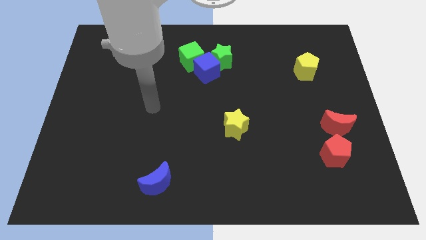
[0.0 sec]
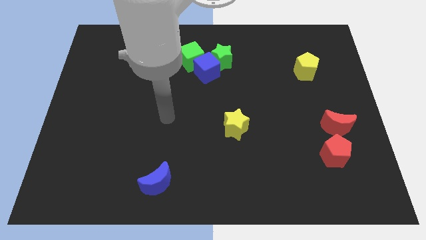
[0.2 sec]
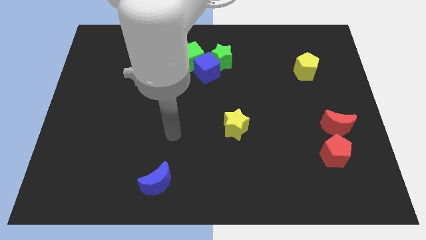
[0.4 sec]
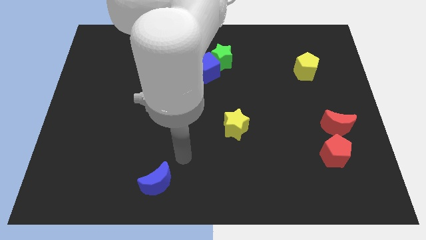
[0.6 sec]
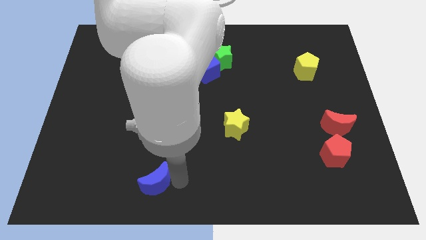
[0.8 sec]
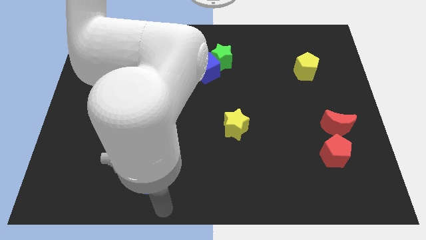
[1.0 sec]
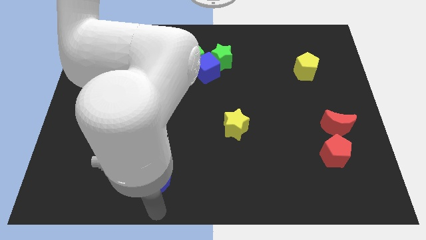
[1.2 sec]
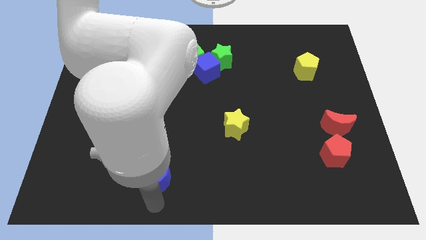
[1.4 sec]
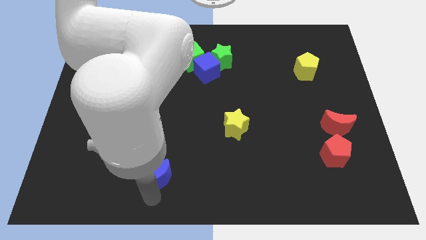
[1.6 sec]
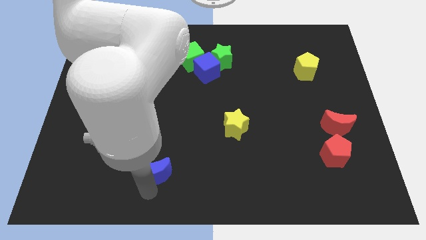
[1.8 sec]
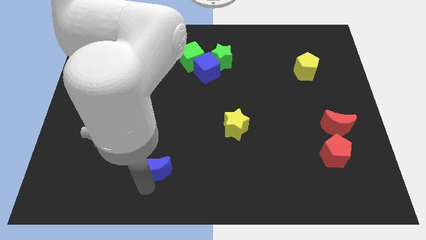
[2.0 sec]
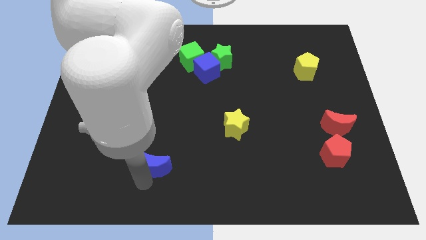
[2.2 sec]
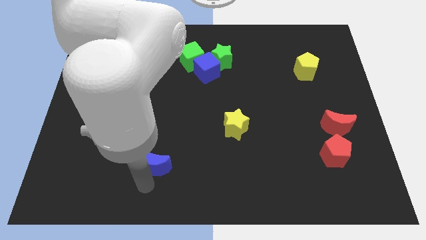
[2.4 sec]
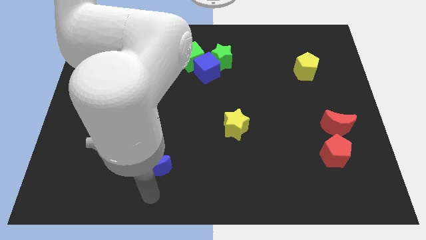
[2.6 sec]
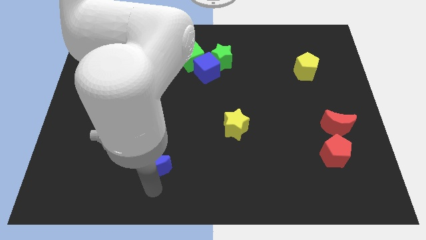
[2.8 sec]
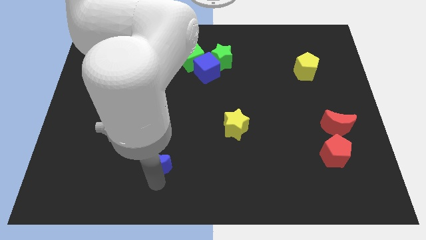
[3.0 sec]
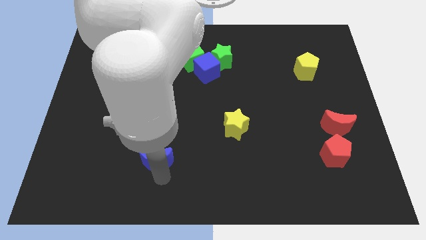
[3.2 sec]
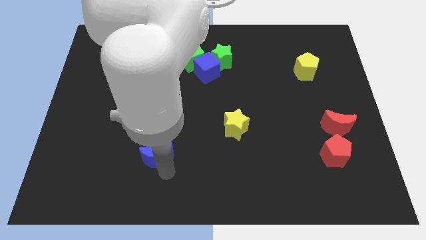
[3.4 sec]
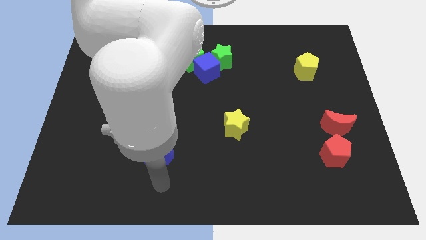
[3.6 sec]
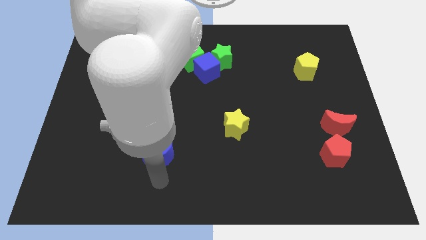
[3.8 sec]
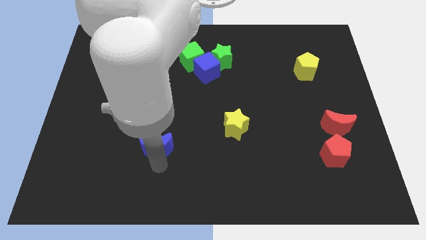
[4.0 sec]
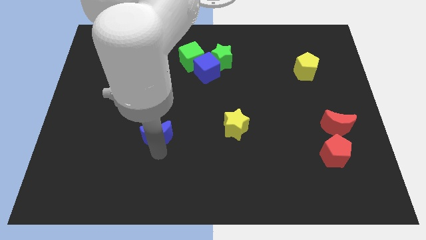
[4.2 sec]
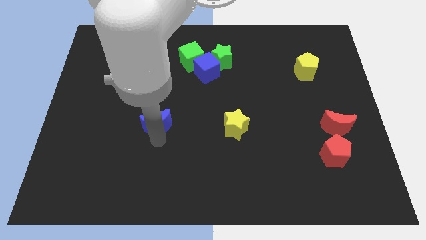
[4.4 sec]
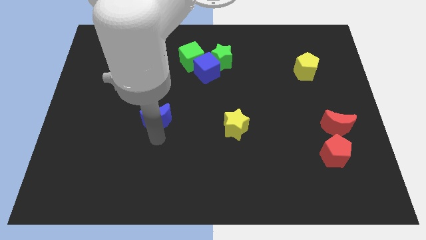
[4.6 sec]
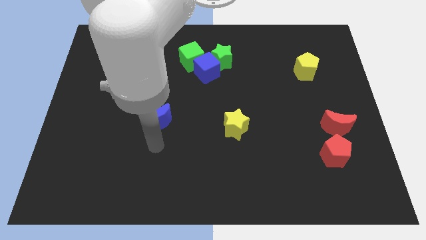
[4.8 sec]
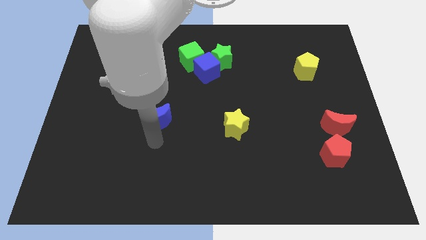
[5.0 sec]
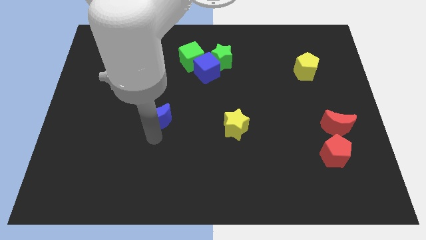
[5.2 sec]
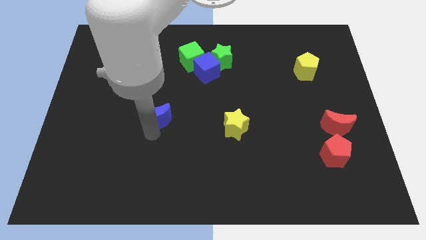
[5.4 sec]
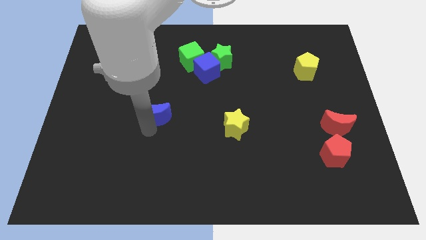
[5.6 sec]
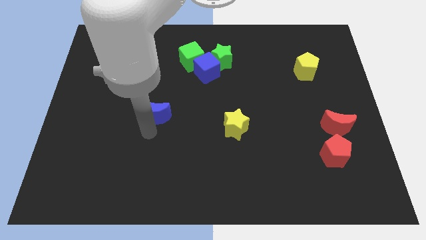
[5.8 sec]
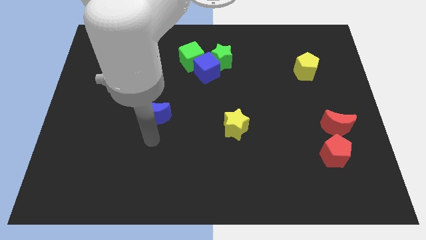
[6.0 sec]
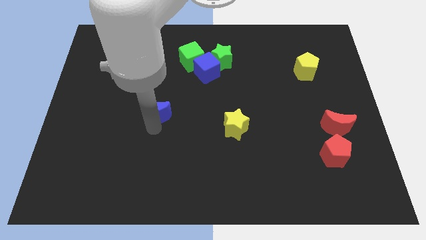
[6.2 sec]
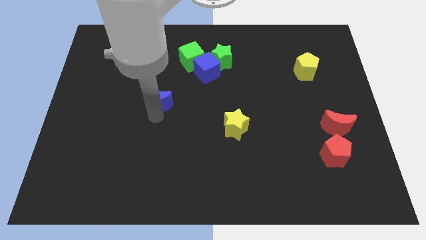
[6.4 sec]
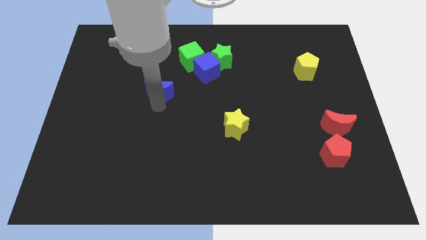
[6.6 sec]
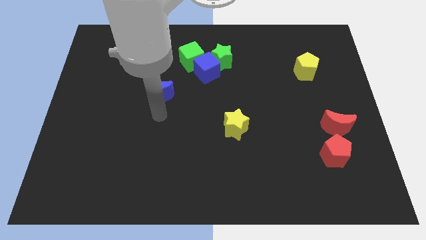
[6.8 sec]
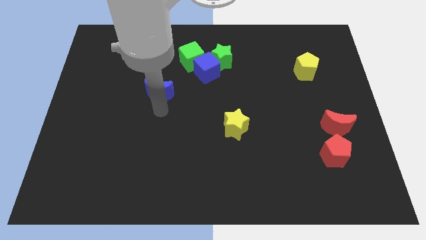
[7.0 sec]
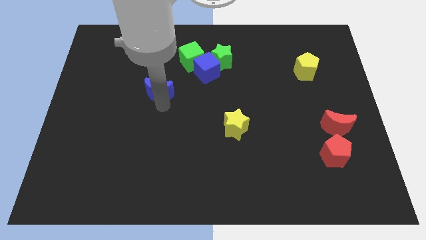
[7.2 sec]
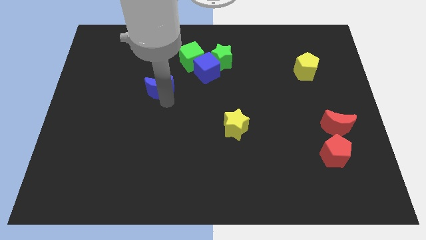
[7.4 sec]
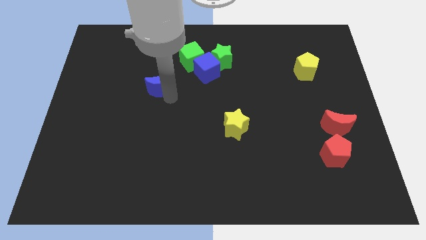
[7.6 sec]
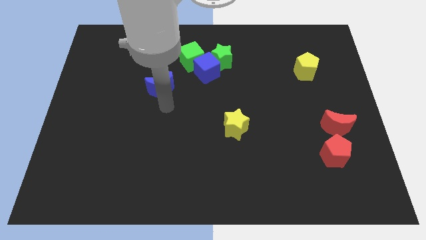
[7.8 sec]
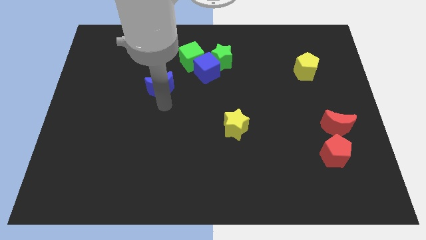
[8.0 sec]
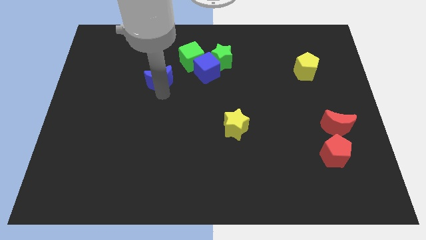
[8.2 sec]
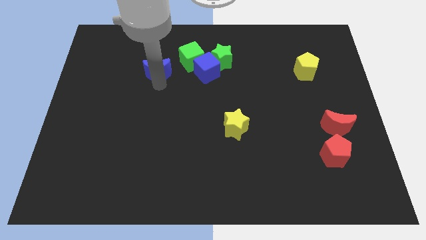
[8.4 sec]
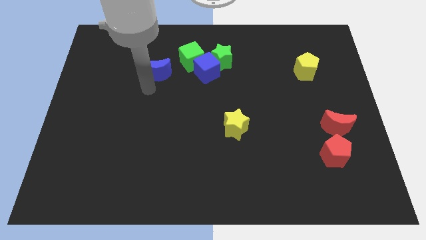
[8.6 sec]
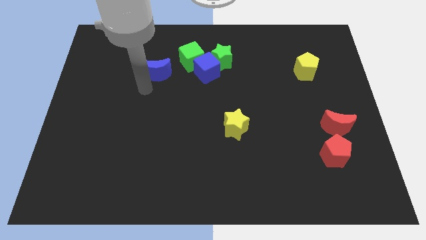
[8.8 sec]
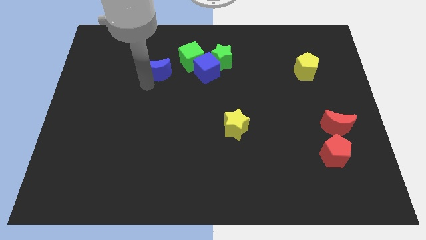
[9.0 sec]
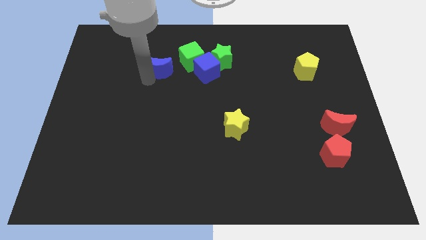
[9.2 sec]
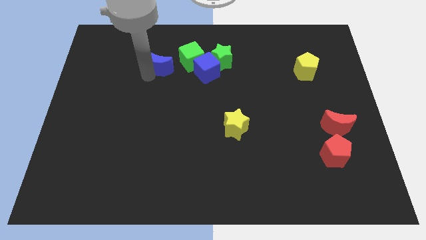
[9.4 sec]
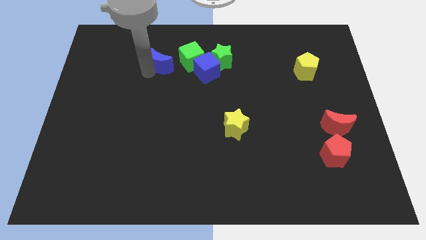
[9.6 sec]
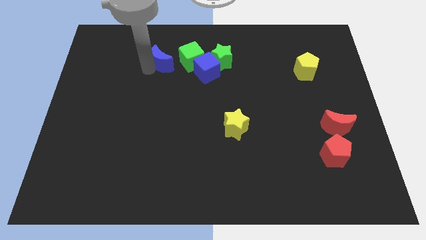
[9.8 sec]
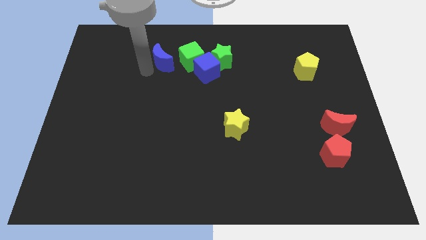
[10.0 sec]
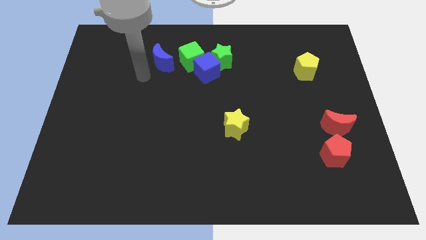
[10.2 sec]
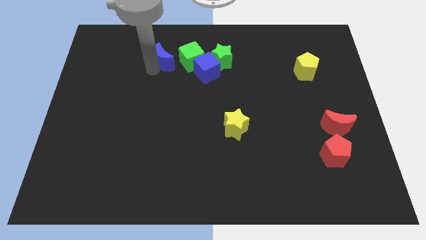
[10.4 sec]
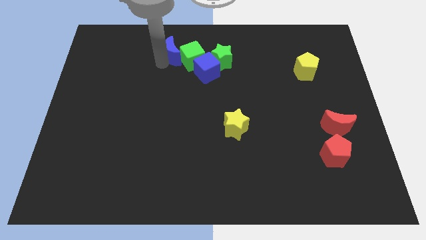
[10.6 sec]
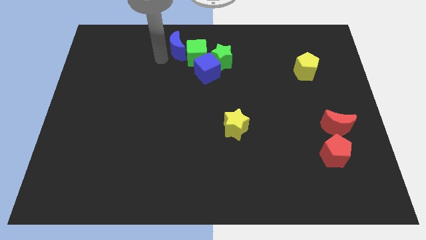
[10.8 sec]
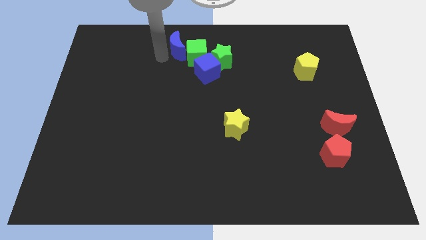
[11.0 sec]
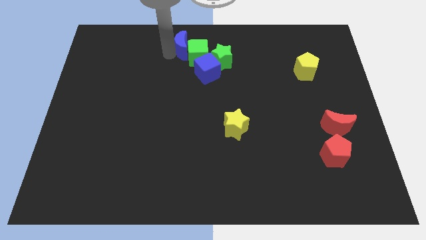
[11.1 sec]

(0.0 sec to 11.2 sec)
push the blue moon to the top
